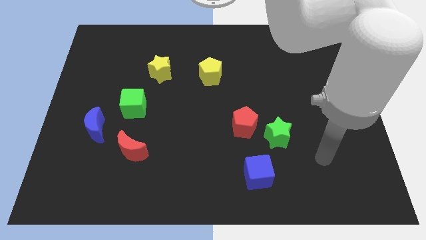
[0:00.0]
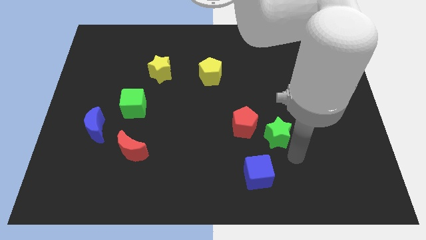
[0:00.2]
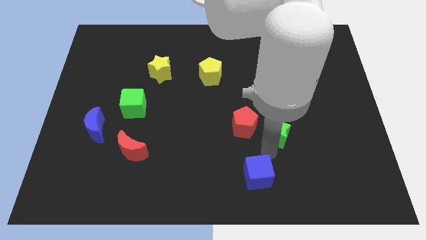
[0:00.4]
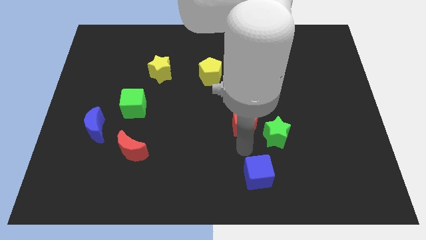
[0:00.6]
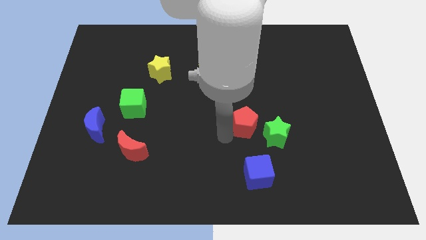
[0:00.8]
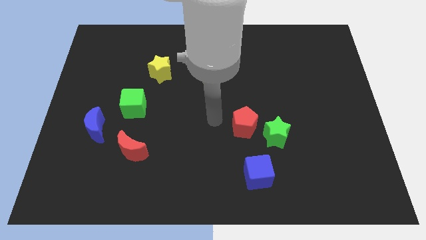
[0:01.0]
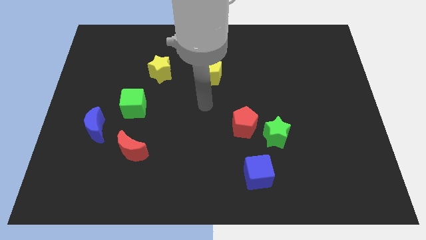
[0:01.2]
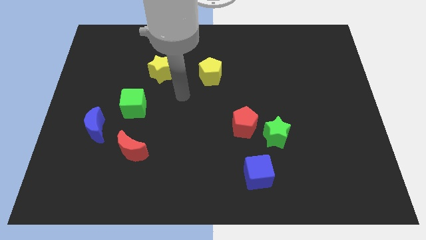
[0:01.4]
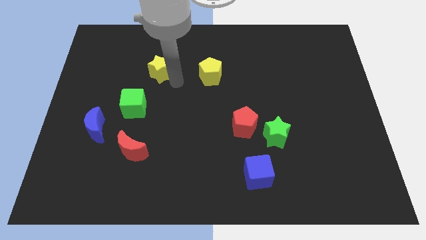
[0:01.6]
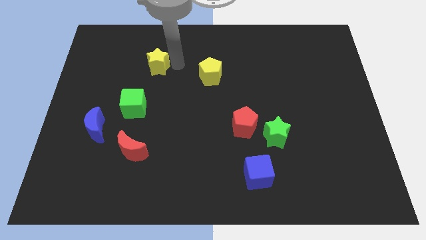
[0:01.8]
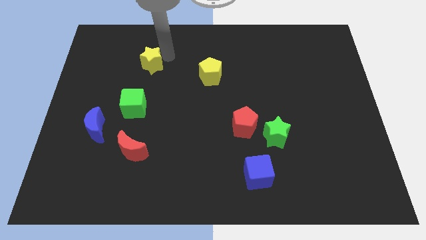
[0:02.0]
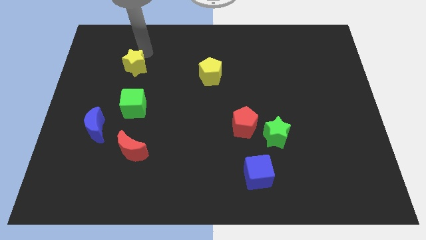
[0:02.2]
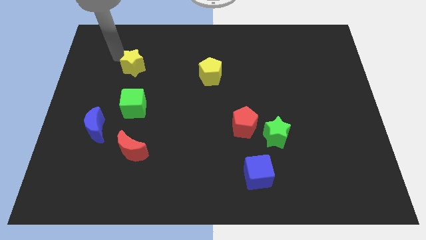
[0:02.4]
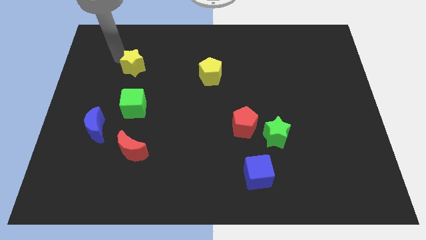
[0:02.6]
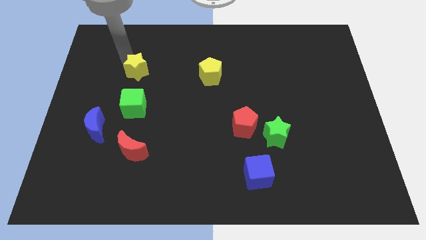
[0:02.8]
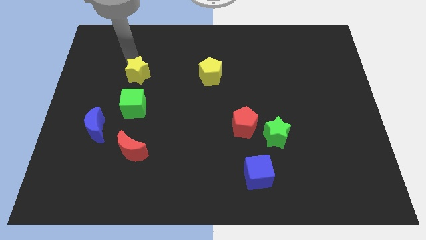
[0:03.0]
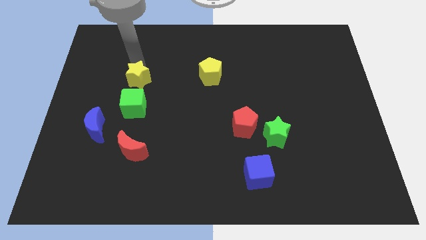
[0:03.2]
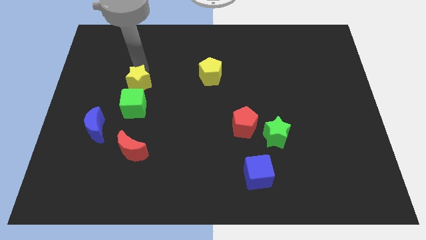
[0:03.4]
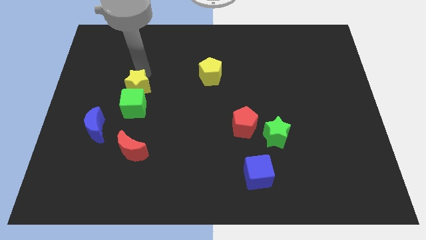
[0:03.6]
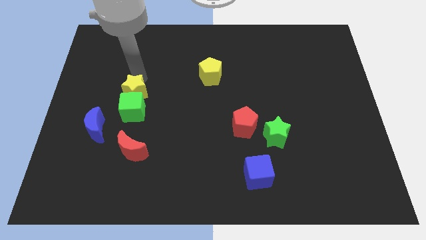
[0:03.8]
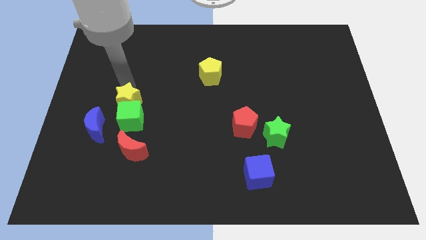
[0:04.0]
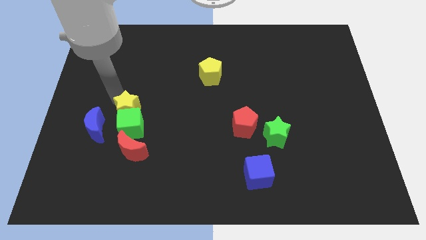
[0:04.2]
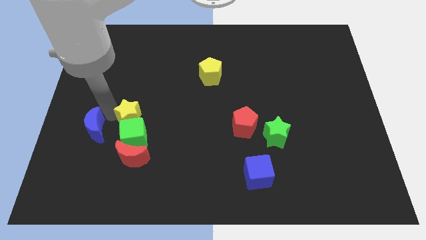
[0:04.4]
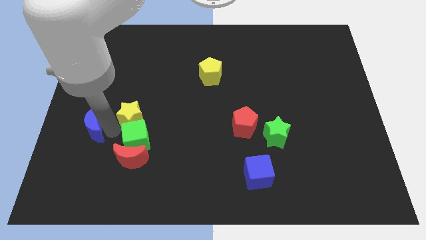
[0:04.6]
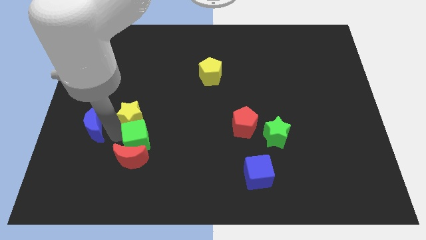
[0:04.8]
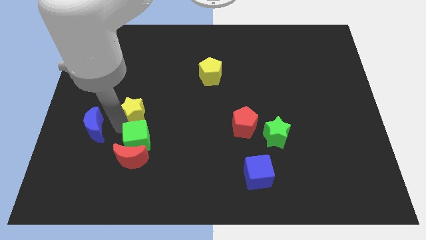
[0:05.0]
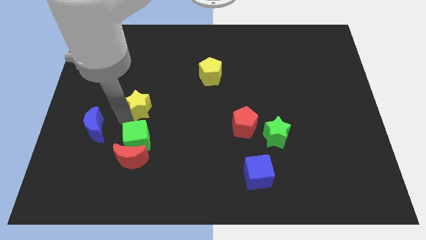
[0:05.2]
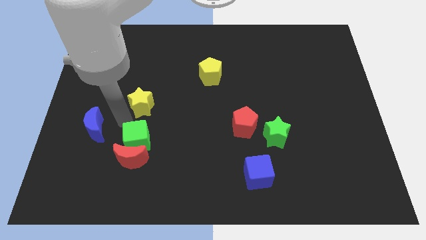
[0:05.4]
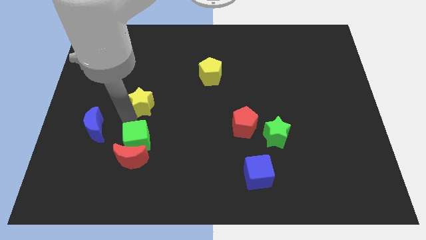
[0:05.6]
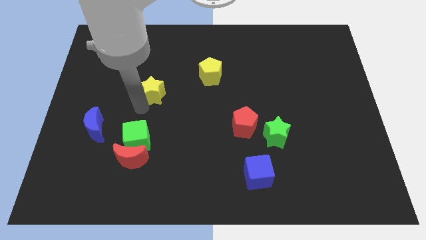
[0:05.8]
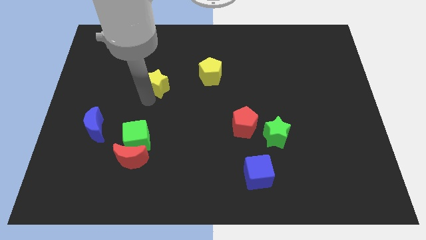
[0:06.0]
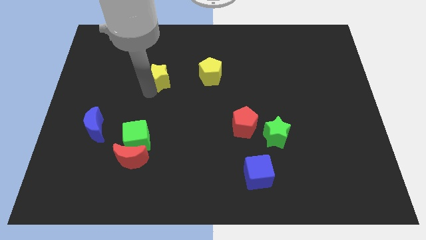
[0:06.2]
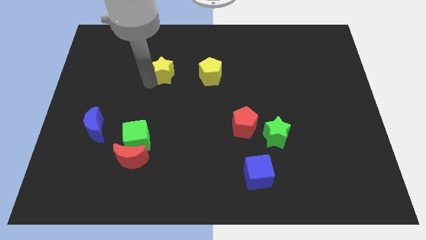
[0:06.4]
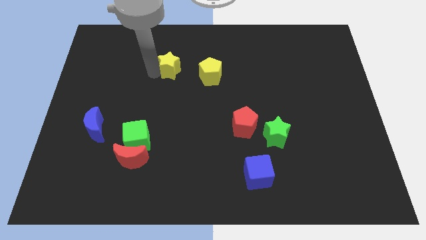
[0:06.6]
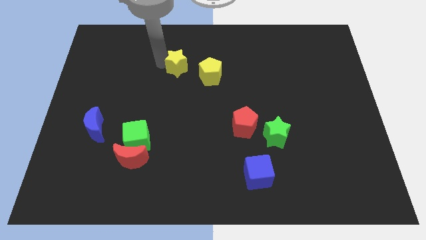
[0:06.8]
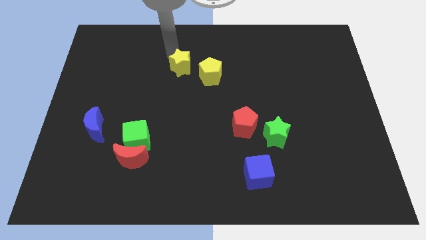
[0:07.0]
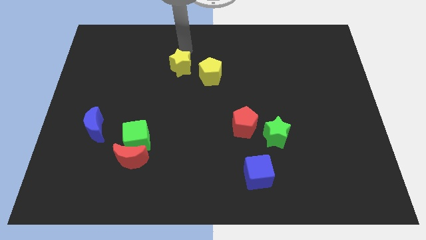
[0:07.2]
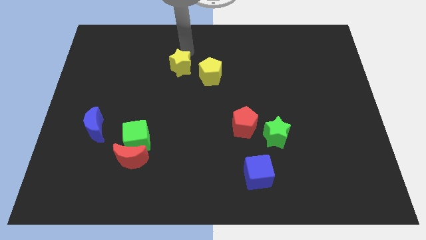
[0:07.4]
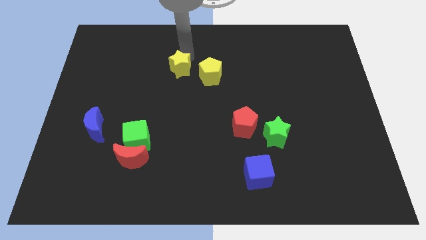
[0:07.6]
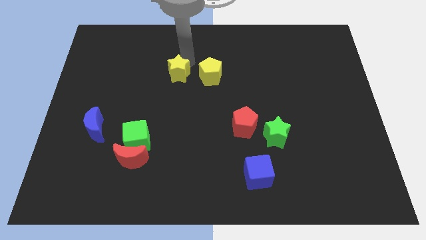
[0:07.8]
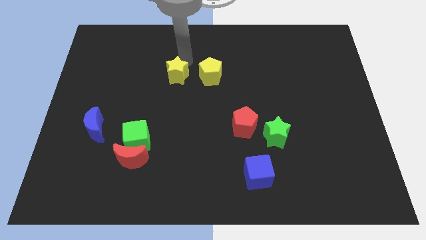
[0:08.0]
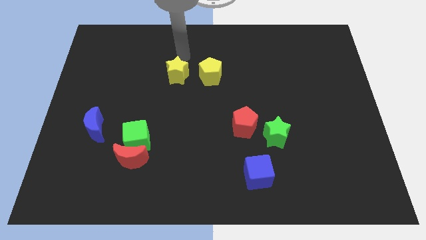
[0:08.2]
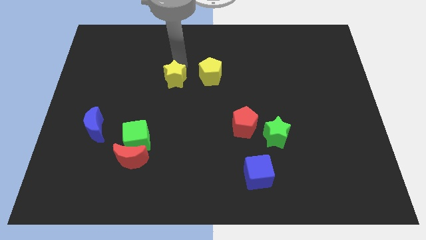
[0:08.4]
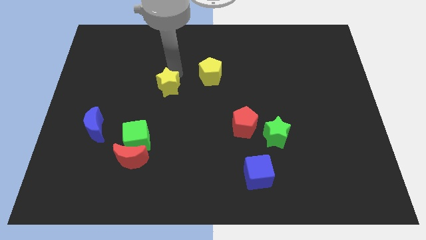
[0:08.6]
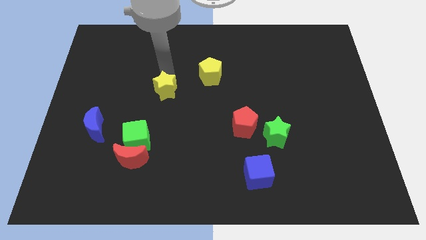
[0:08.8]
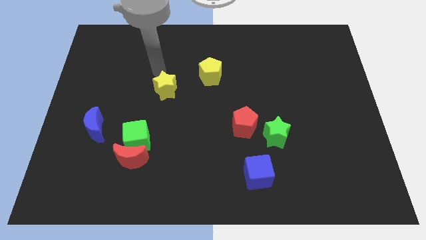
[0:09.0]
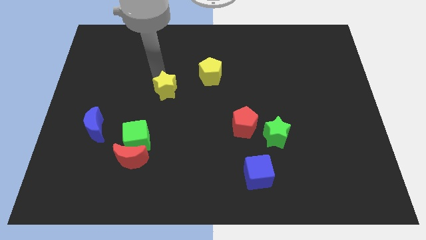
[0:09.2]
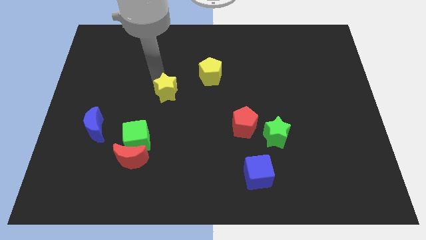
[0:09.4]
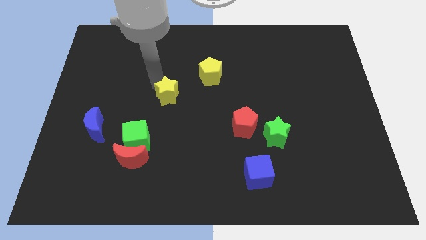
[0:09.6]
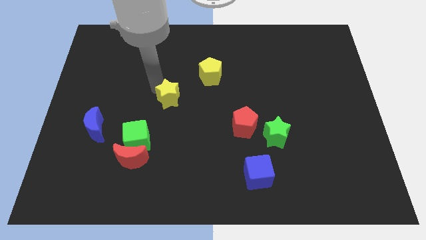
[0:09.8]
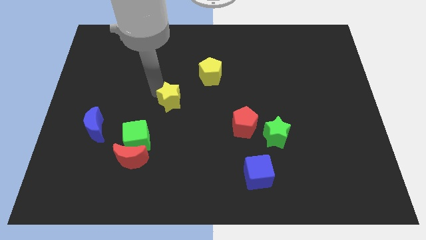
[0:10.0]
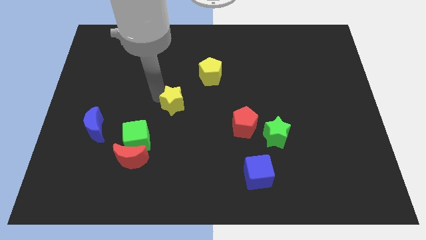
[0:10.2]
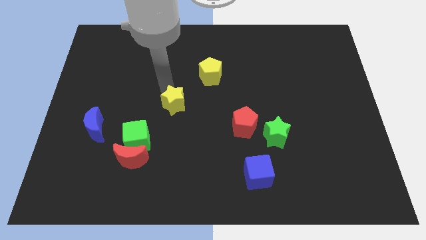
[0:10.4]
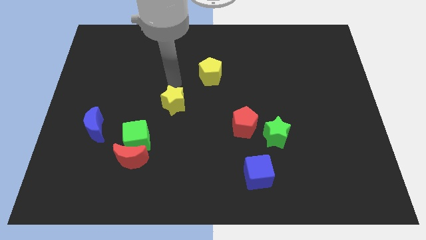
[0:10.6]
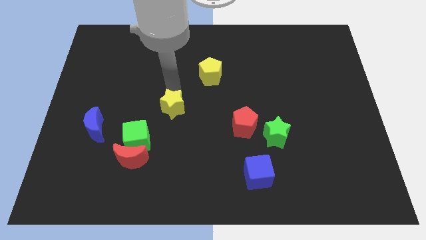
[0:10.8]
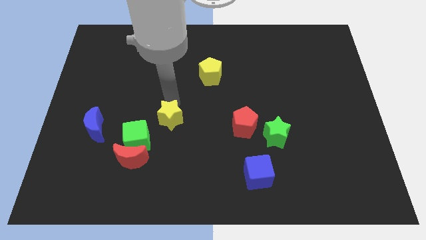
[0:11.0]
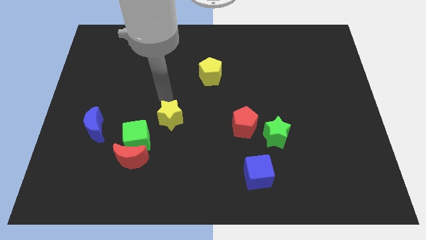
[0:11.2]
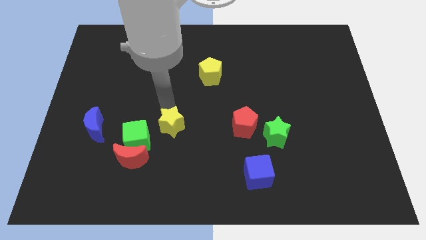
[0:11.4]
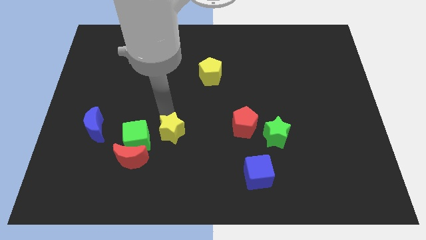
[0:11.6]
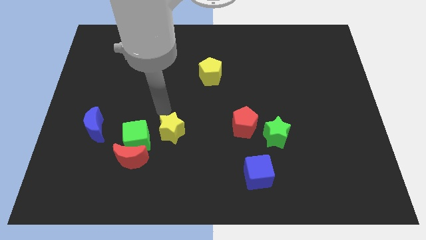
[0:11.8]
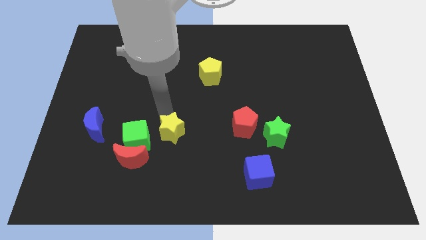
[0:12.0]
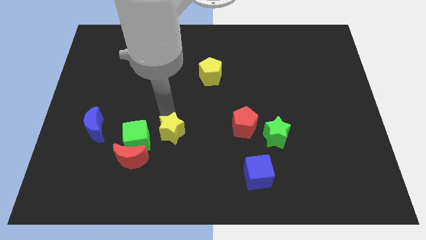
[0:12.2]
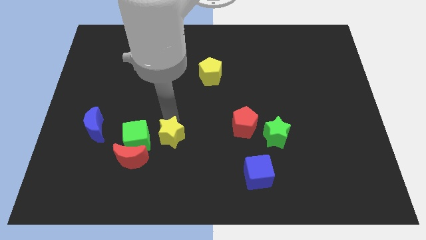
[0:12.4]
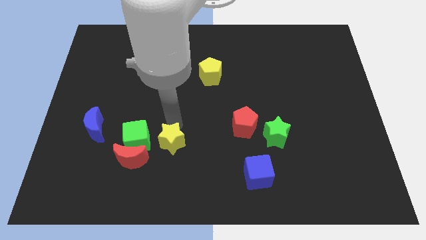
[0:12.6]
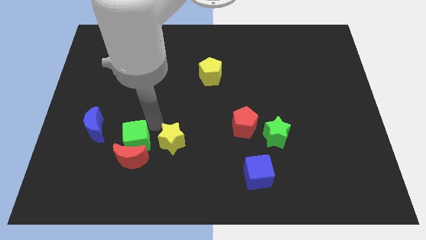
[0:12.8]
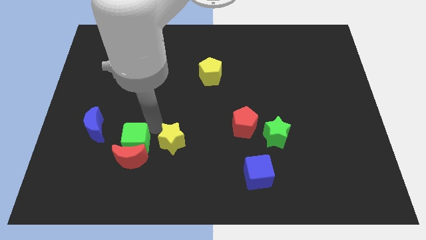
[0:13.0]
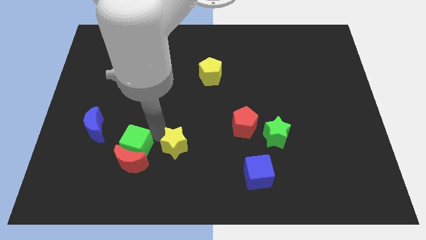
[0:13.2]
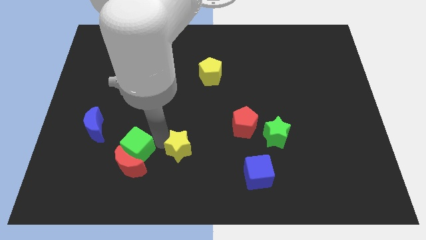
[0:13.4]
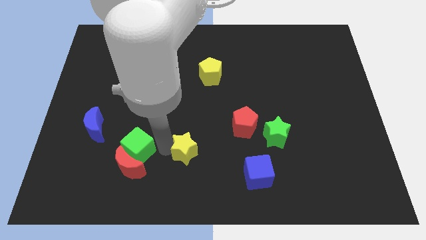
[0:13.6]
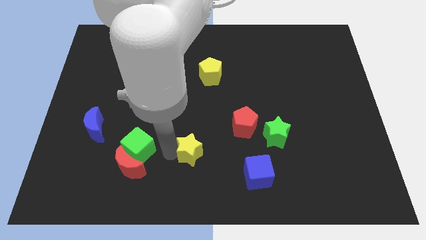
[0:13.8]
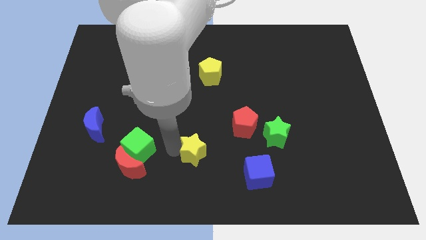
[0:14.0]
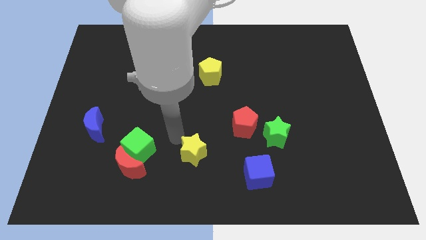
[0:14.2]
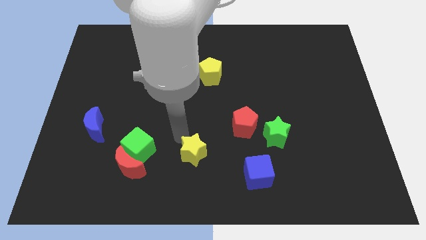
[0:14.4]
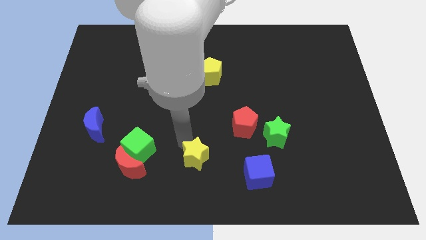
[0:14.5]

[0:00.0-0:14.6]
push the yellow star to the left side of the blue cube
